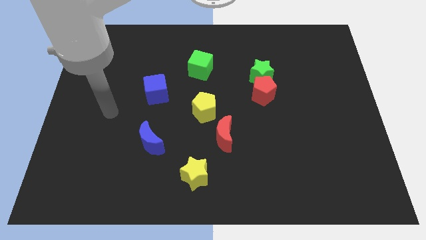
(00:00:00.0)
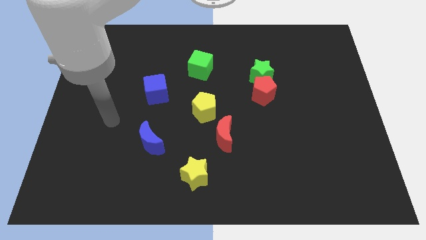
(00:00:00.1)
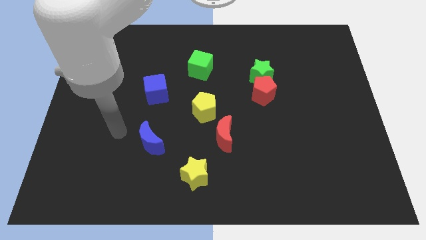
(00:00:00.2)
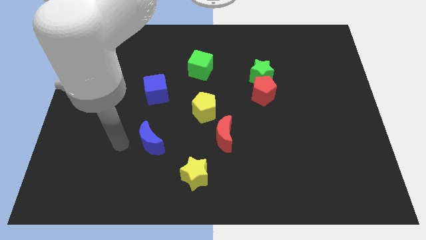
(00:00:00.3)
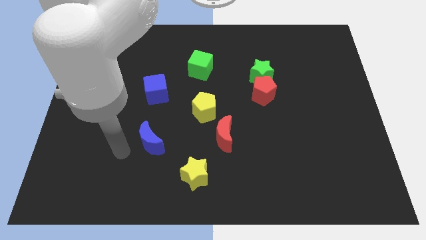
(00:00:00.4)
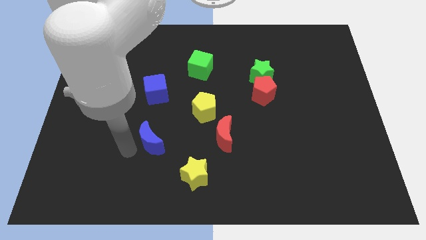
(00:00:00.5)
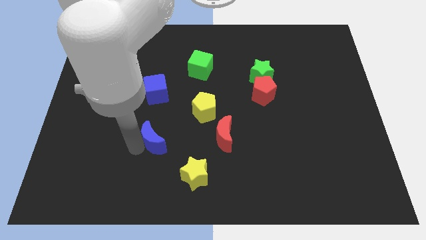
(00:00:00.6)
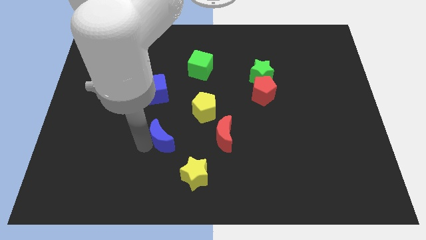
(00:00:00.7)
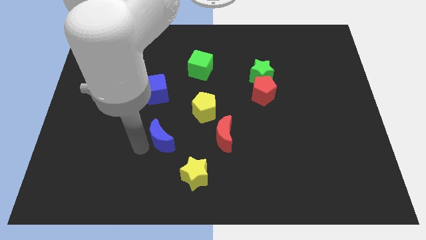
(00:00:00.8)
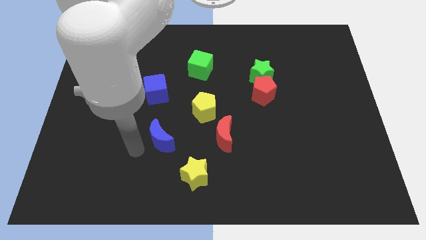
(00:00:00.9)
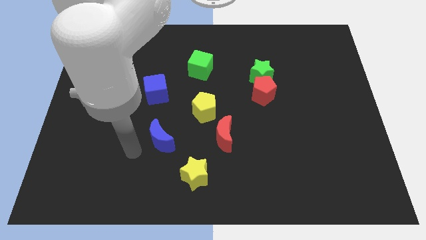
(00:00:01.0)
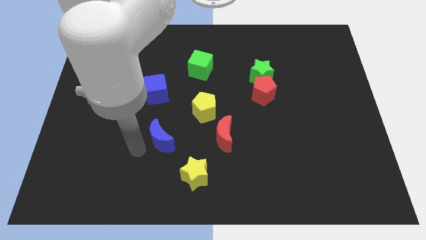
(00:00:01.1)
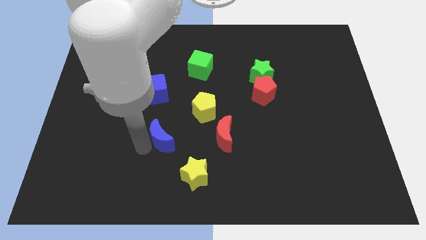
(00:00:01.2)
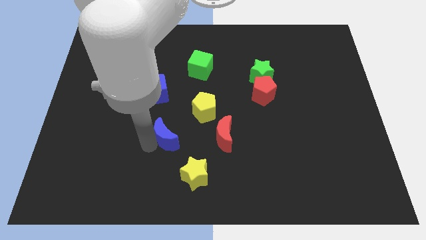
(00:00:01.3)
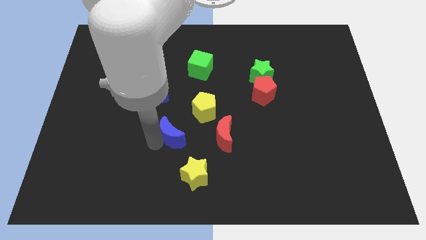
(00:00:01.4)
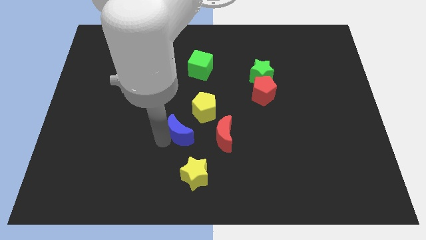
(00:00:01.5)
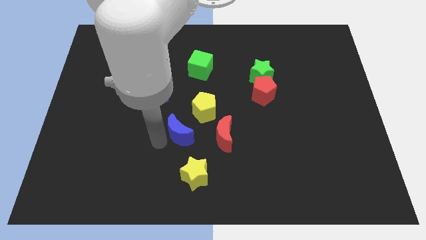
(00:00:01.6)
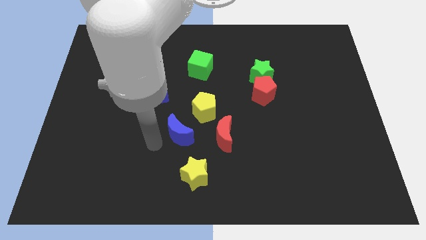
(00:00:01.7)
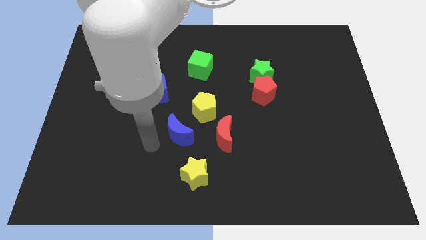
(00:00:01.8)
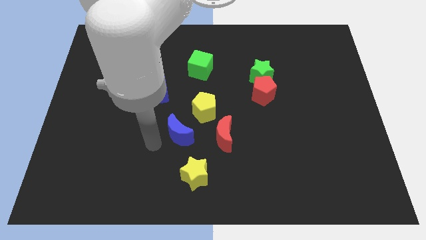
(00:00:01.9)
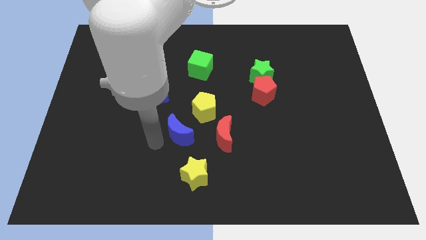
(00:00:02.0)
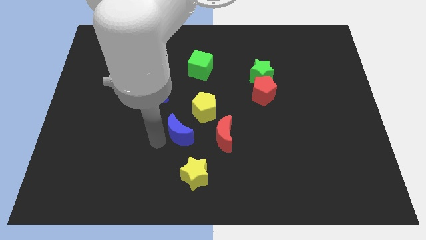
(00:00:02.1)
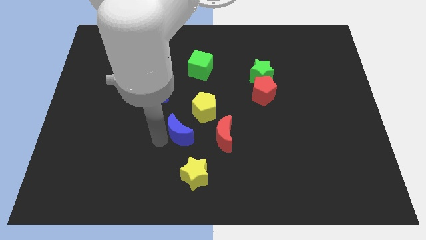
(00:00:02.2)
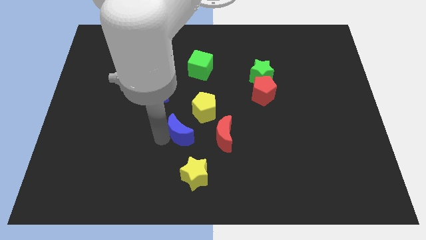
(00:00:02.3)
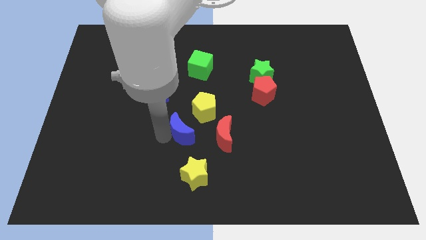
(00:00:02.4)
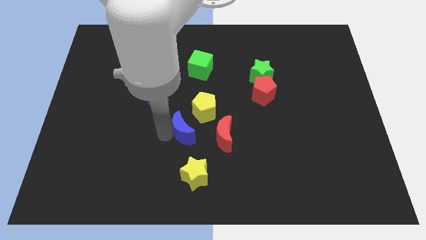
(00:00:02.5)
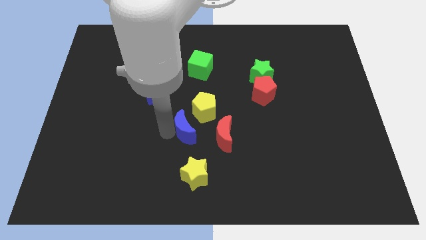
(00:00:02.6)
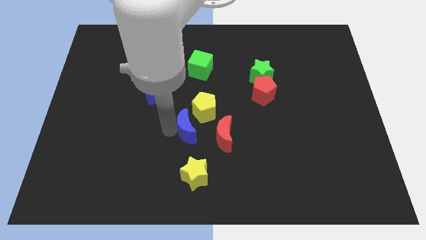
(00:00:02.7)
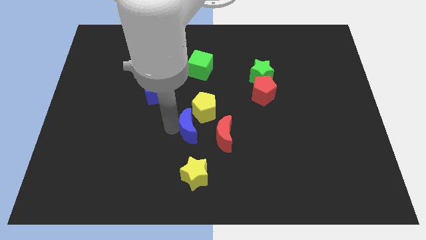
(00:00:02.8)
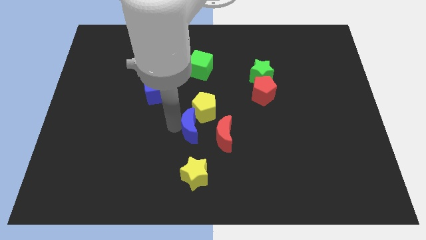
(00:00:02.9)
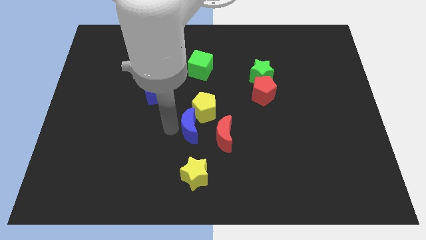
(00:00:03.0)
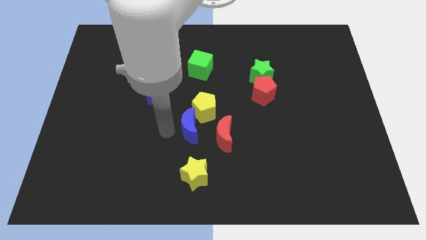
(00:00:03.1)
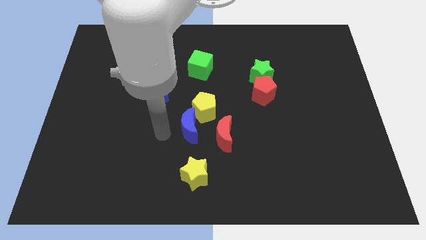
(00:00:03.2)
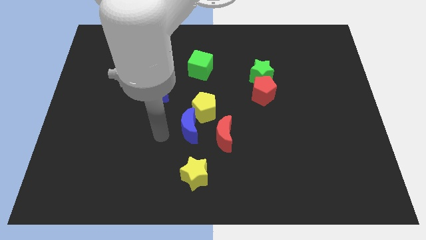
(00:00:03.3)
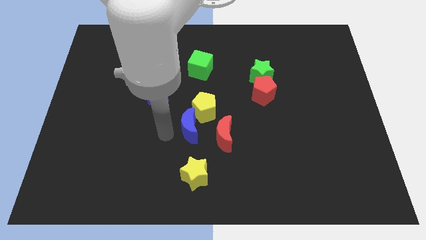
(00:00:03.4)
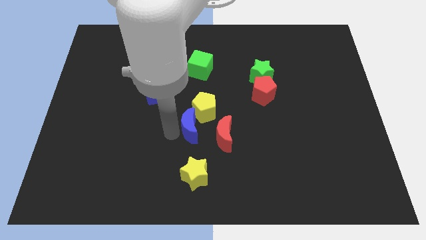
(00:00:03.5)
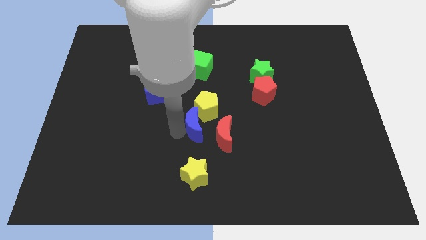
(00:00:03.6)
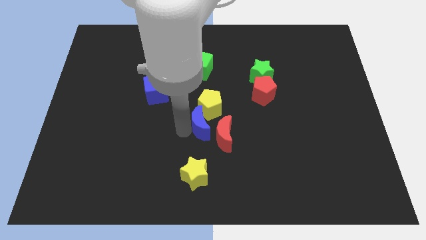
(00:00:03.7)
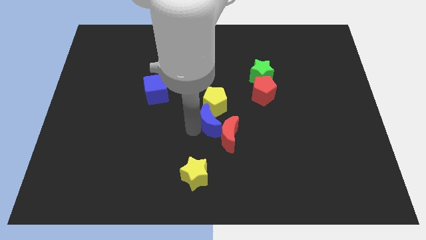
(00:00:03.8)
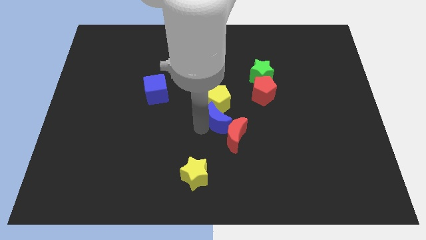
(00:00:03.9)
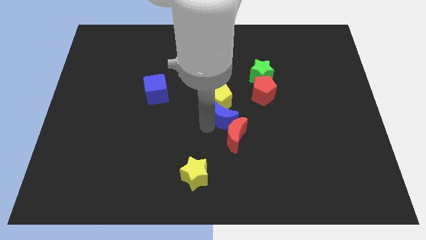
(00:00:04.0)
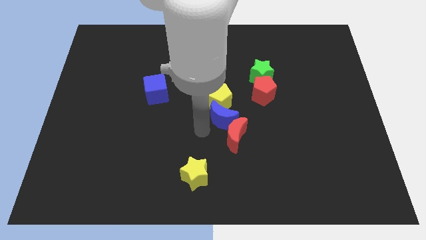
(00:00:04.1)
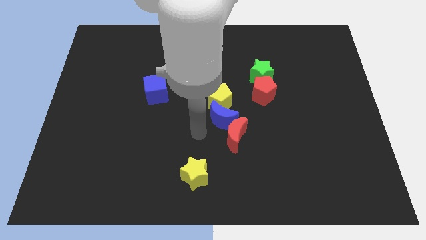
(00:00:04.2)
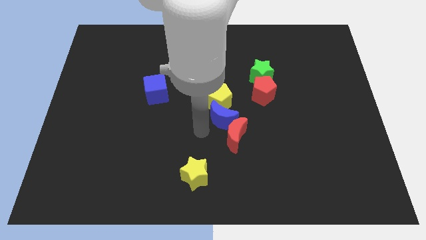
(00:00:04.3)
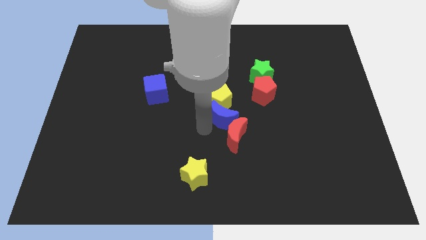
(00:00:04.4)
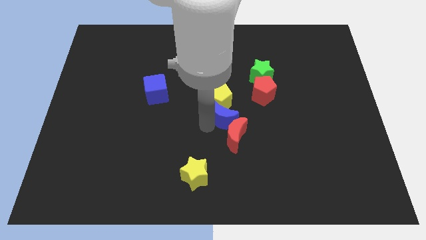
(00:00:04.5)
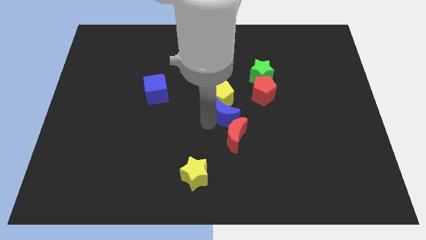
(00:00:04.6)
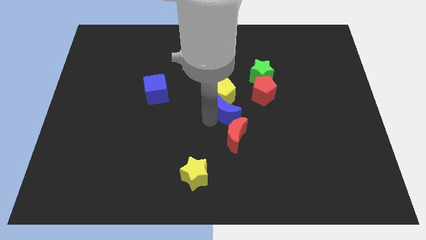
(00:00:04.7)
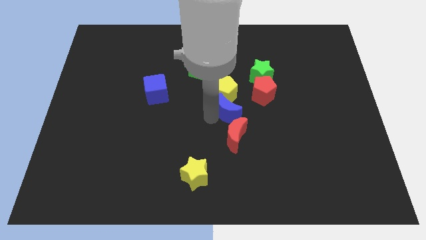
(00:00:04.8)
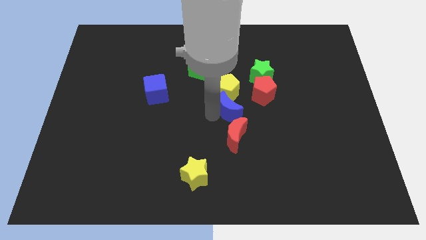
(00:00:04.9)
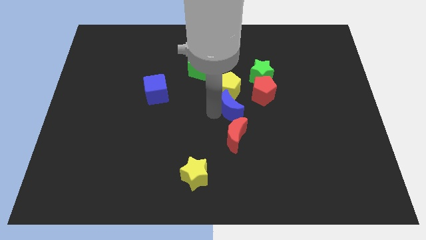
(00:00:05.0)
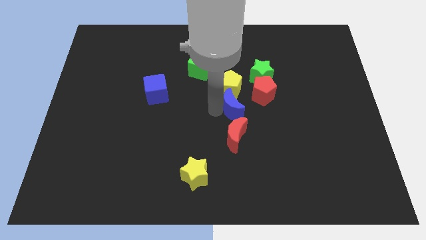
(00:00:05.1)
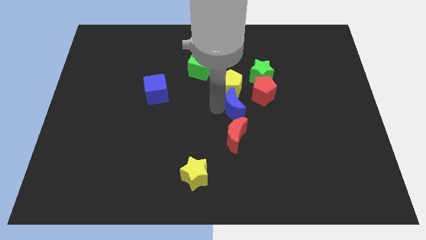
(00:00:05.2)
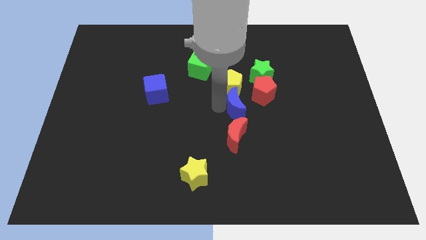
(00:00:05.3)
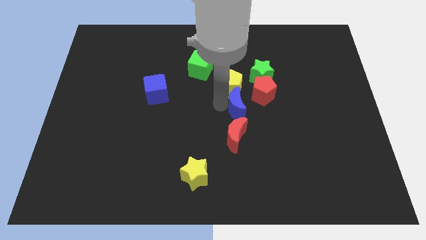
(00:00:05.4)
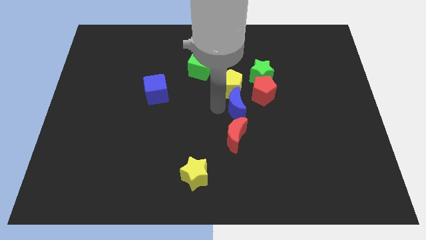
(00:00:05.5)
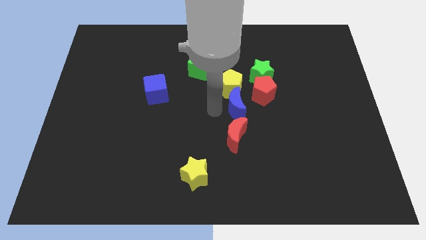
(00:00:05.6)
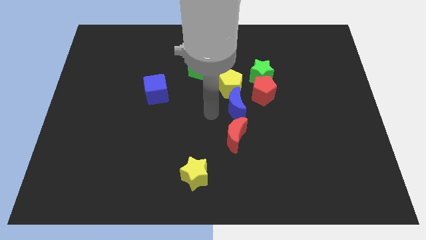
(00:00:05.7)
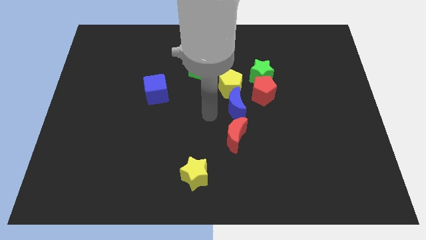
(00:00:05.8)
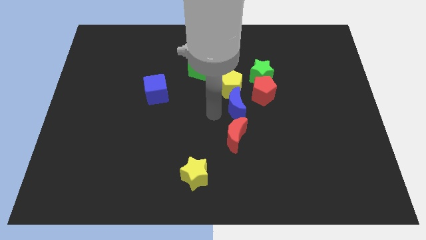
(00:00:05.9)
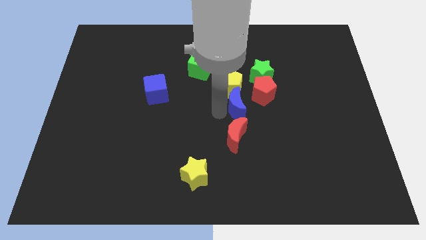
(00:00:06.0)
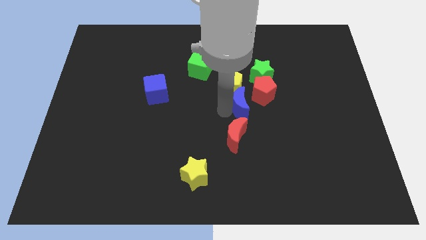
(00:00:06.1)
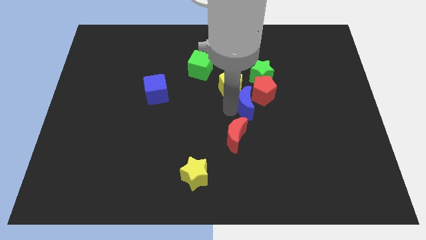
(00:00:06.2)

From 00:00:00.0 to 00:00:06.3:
slide the blue moon close to the red pentagon
